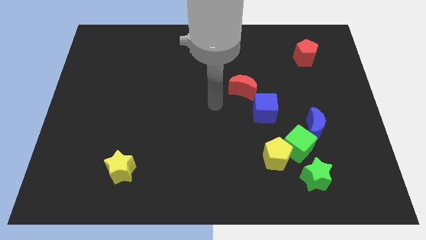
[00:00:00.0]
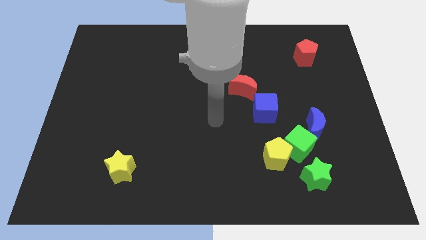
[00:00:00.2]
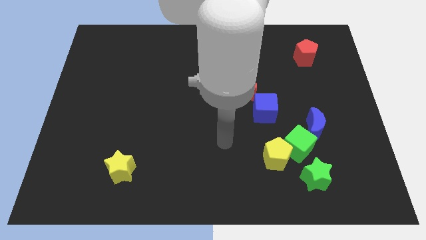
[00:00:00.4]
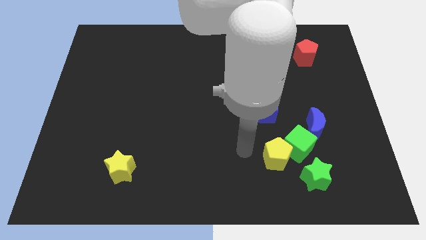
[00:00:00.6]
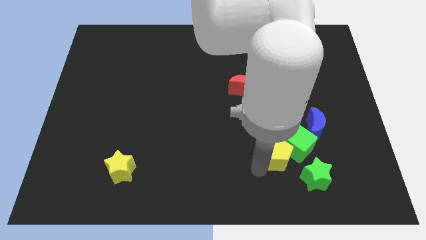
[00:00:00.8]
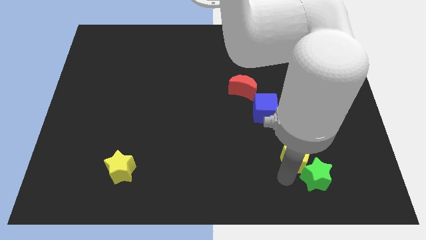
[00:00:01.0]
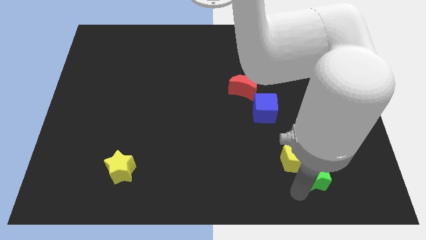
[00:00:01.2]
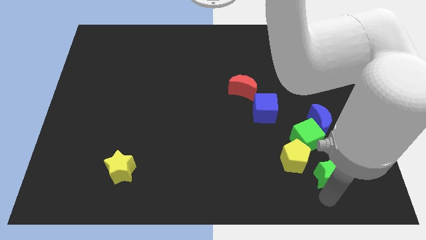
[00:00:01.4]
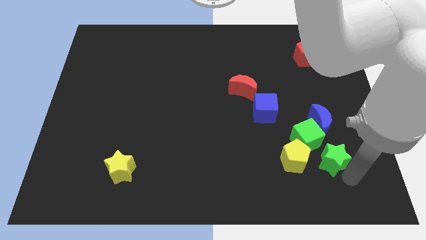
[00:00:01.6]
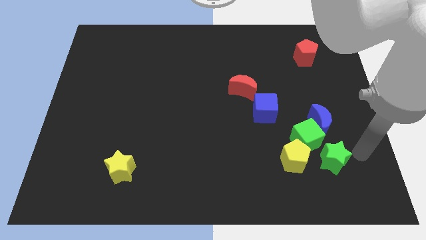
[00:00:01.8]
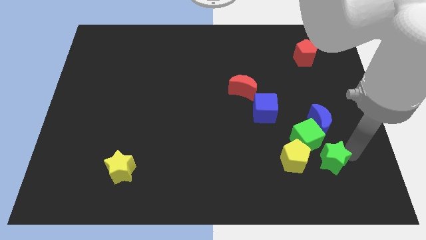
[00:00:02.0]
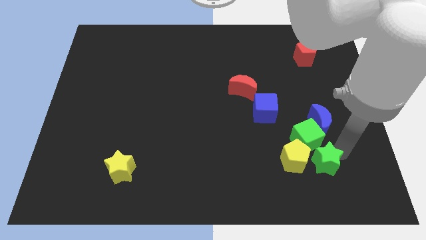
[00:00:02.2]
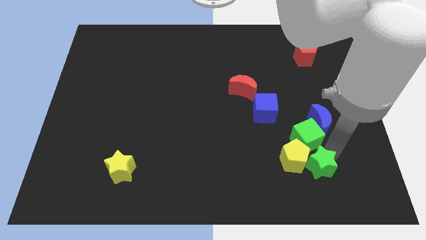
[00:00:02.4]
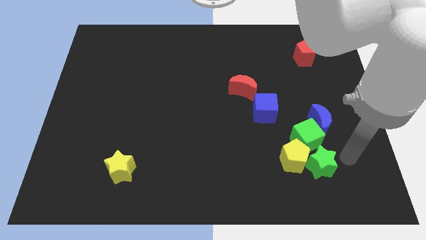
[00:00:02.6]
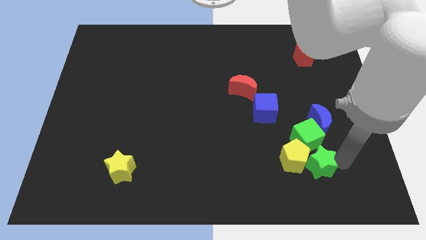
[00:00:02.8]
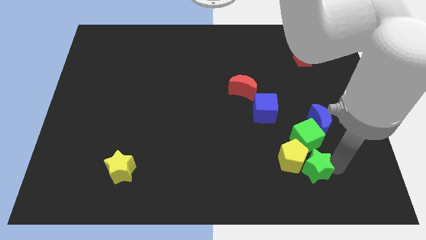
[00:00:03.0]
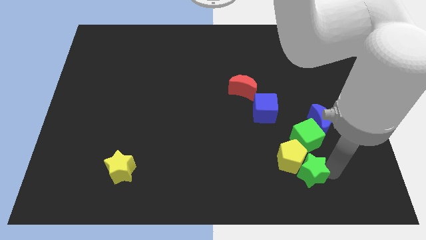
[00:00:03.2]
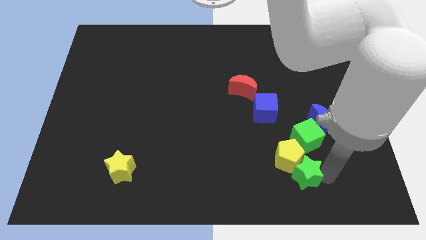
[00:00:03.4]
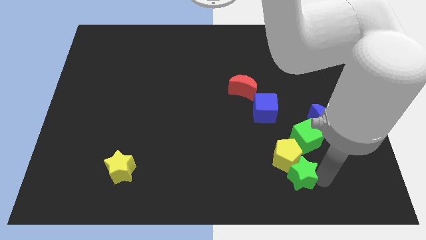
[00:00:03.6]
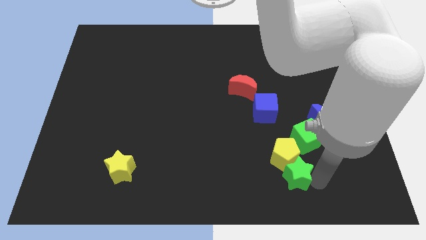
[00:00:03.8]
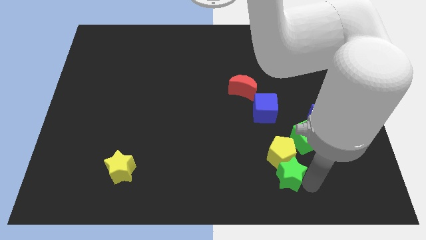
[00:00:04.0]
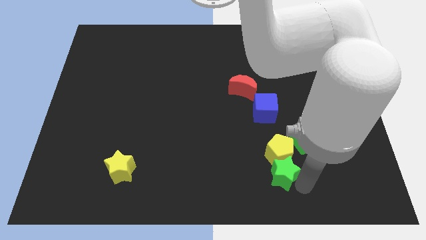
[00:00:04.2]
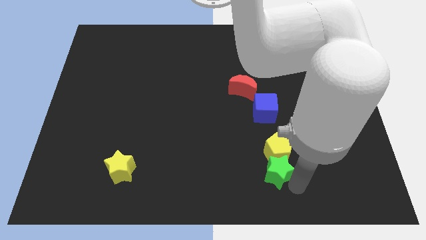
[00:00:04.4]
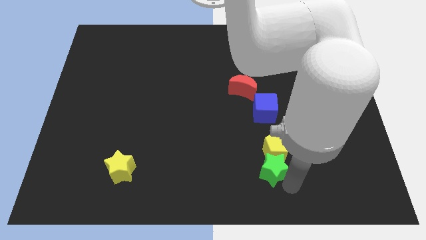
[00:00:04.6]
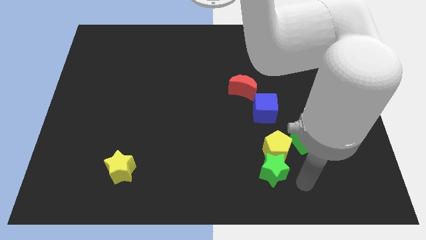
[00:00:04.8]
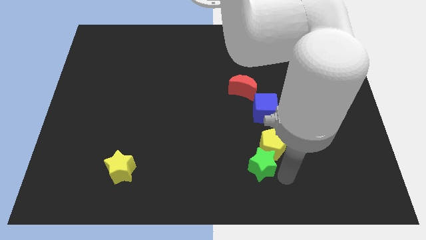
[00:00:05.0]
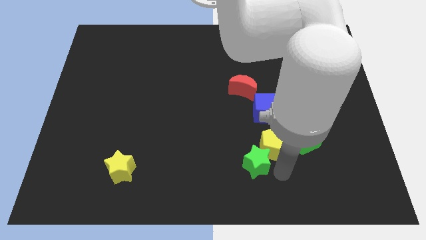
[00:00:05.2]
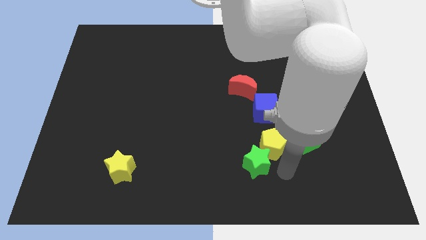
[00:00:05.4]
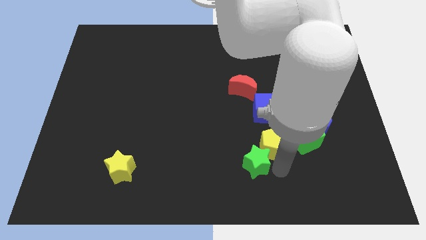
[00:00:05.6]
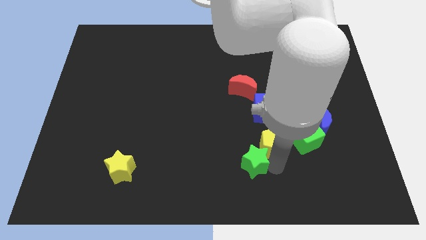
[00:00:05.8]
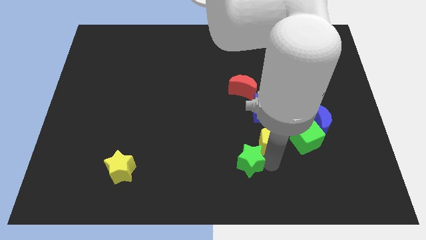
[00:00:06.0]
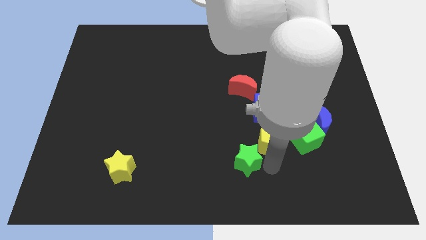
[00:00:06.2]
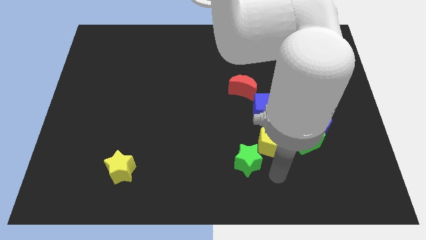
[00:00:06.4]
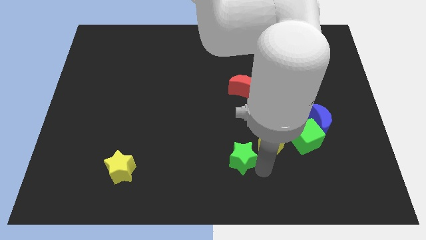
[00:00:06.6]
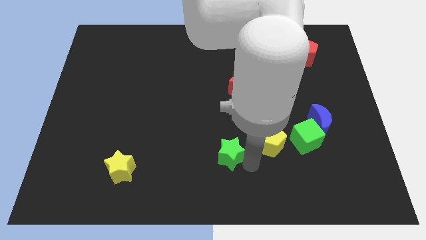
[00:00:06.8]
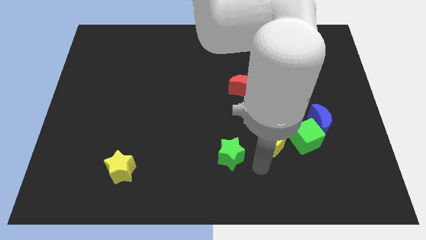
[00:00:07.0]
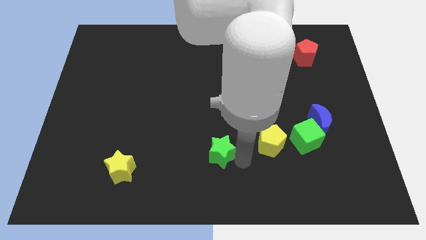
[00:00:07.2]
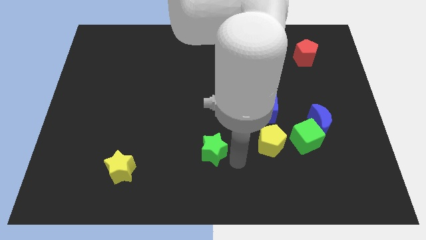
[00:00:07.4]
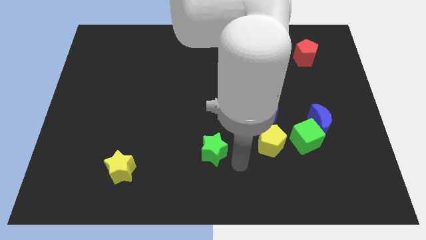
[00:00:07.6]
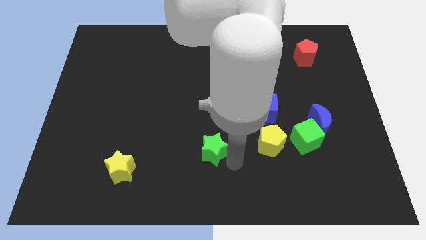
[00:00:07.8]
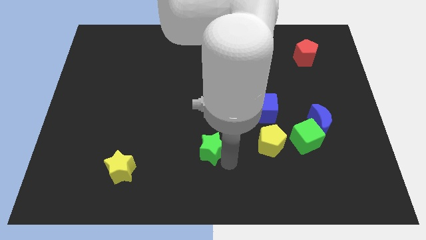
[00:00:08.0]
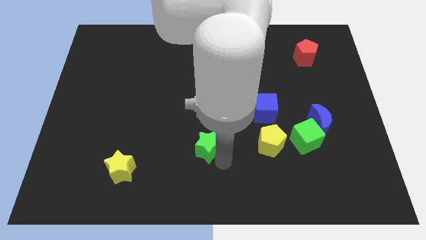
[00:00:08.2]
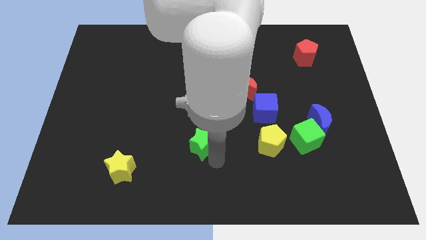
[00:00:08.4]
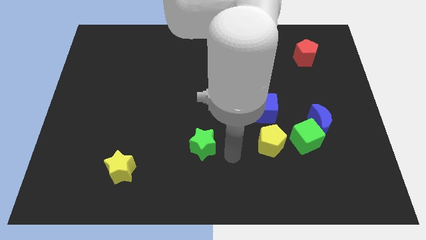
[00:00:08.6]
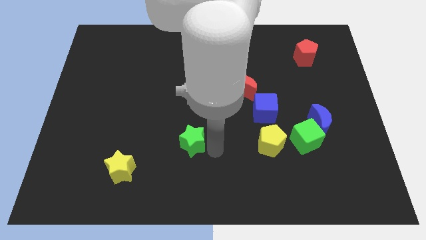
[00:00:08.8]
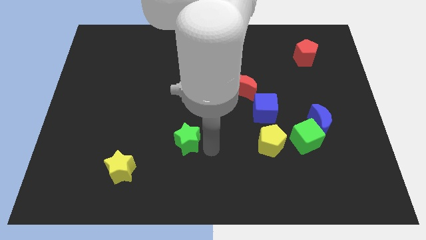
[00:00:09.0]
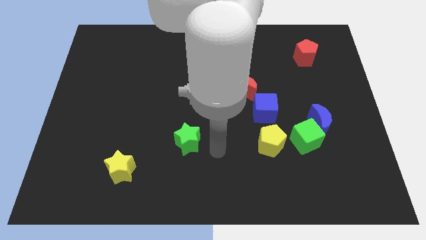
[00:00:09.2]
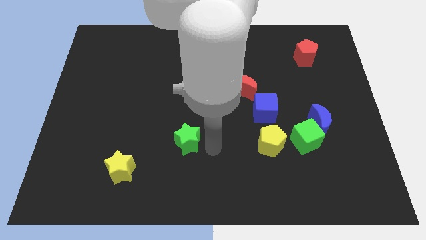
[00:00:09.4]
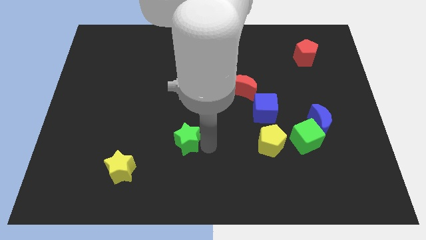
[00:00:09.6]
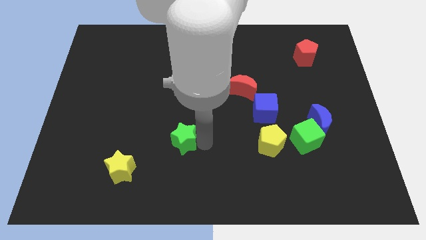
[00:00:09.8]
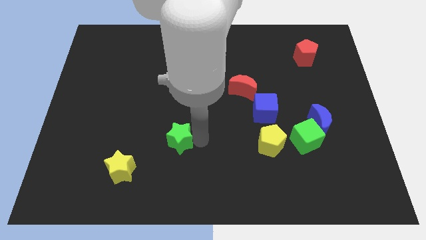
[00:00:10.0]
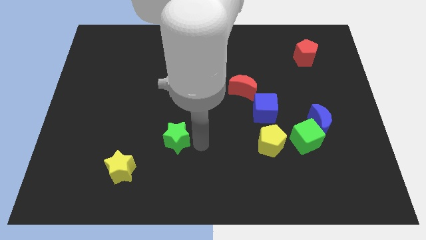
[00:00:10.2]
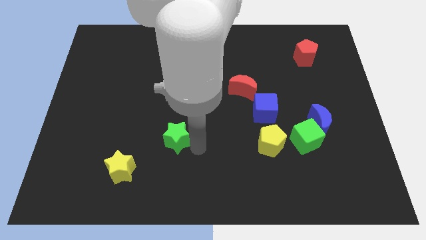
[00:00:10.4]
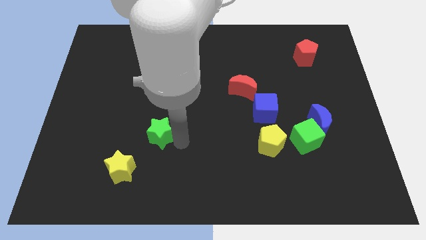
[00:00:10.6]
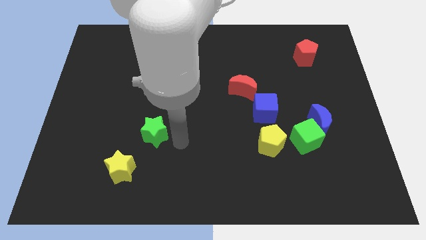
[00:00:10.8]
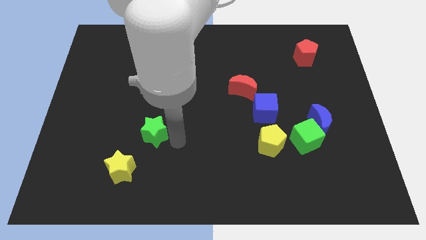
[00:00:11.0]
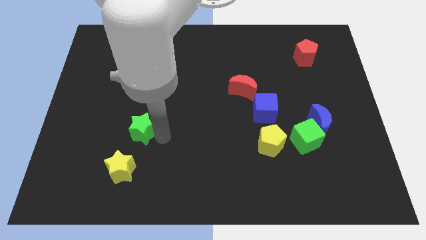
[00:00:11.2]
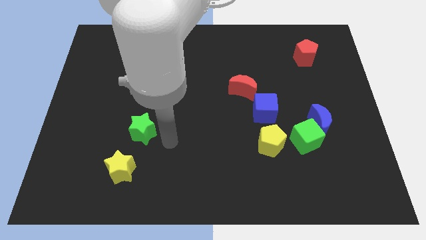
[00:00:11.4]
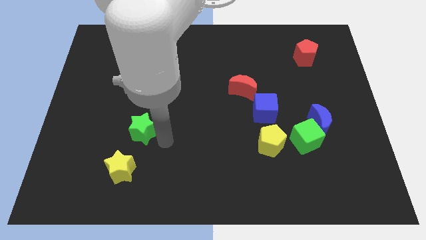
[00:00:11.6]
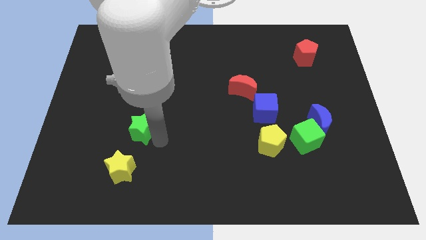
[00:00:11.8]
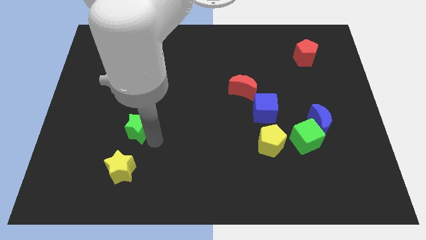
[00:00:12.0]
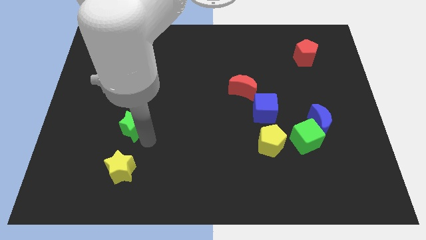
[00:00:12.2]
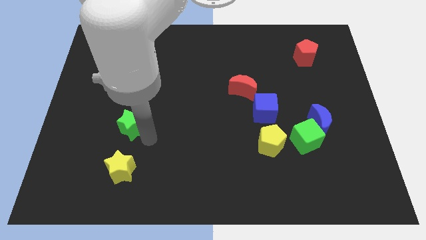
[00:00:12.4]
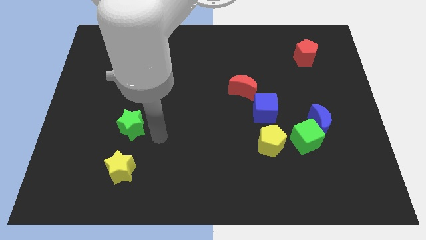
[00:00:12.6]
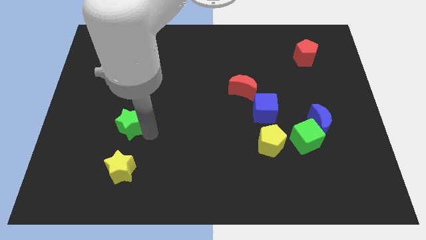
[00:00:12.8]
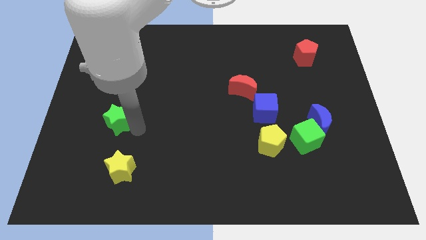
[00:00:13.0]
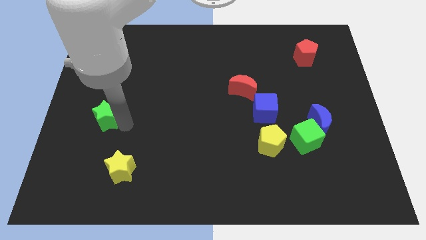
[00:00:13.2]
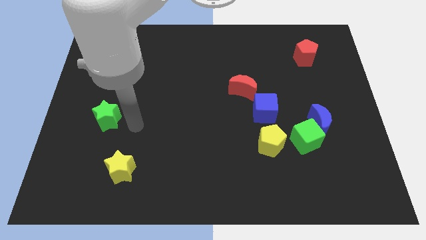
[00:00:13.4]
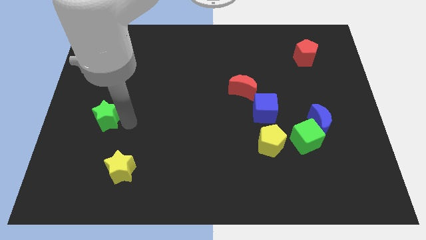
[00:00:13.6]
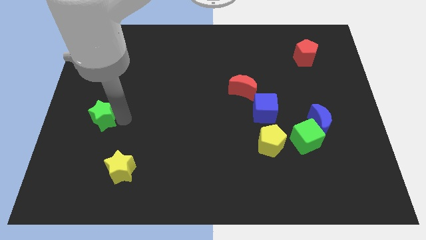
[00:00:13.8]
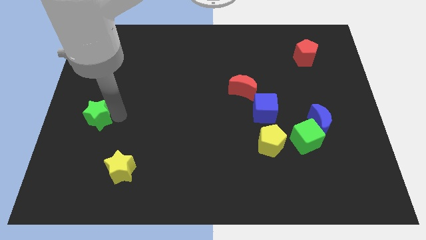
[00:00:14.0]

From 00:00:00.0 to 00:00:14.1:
move the green star to the center left
